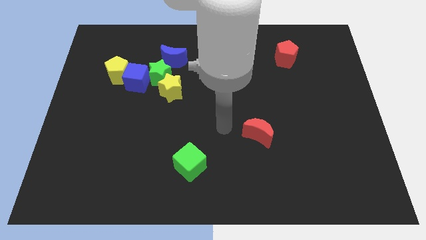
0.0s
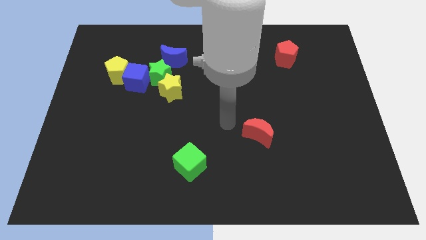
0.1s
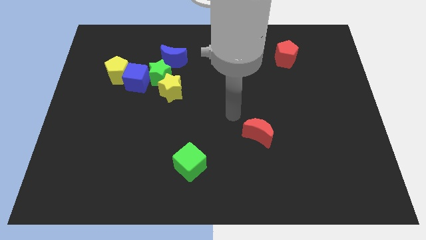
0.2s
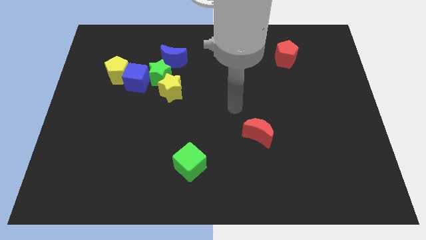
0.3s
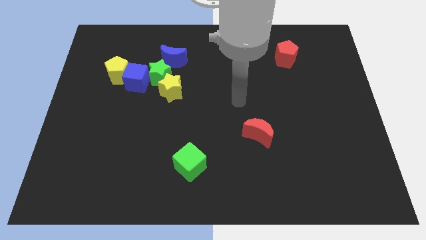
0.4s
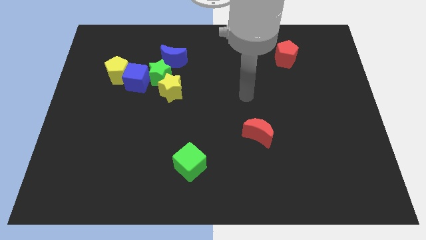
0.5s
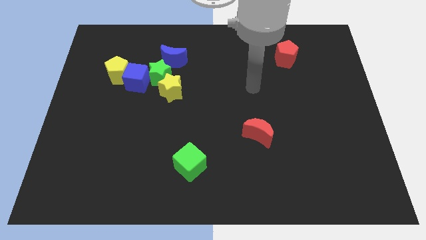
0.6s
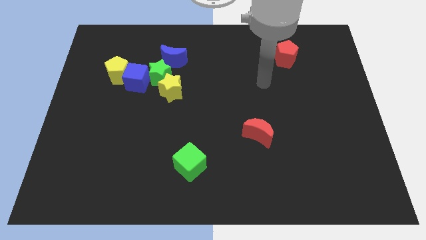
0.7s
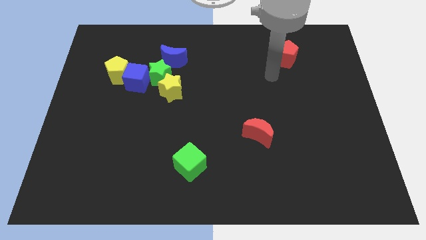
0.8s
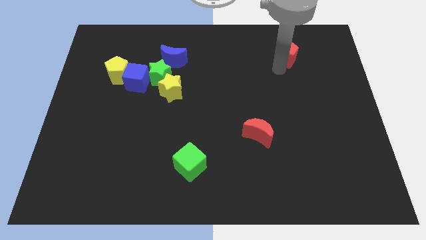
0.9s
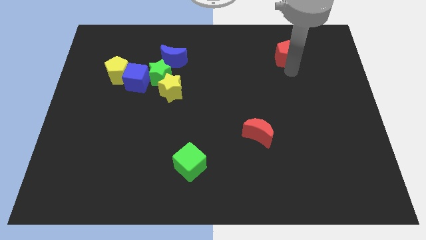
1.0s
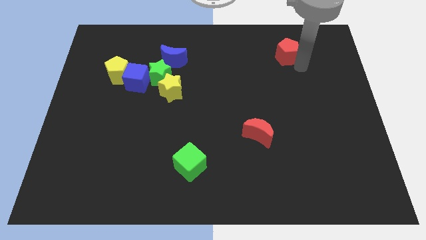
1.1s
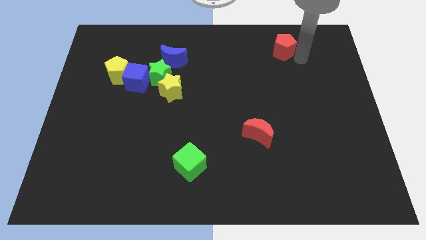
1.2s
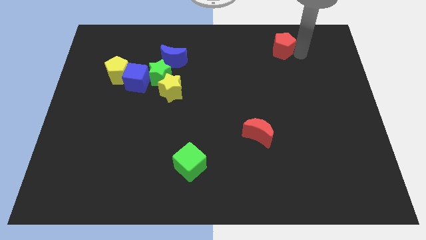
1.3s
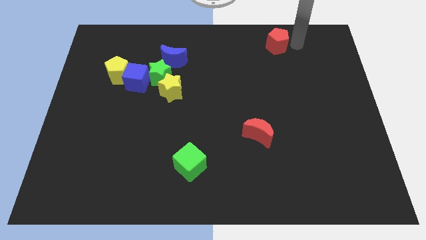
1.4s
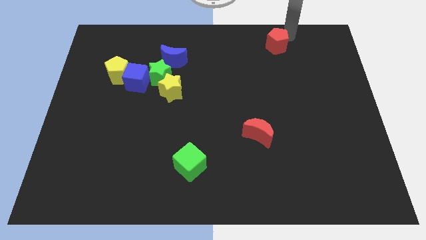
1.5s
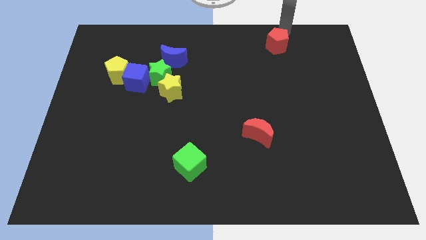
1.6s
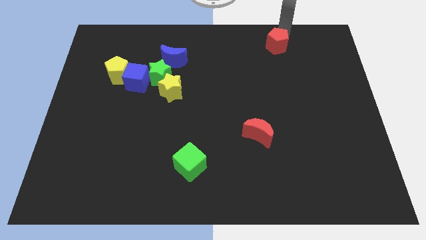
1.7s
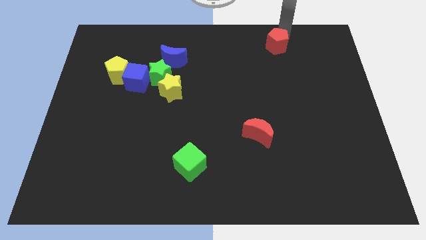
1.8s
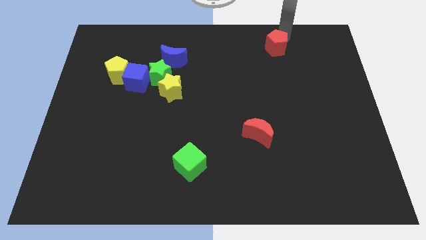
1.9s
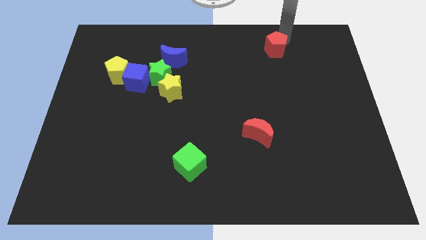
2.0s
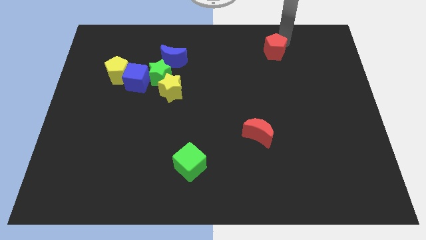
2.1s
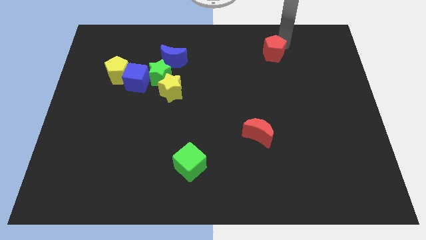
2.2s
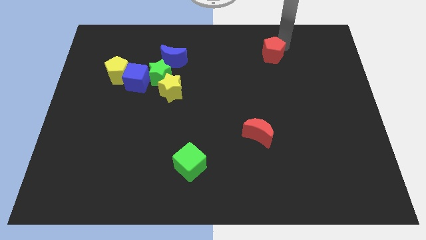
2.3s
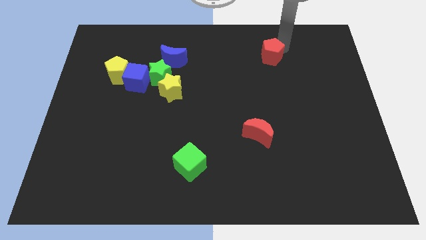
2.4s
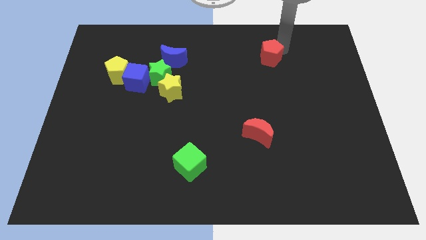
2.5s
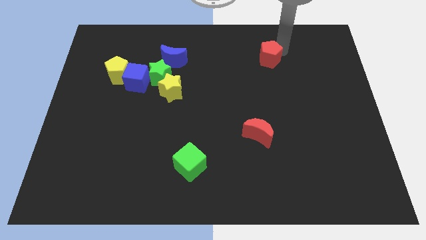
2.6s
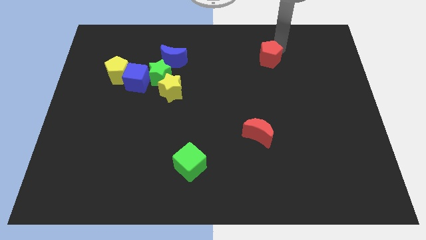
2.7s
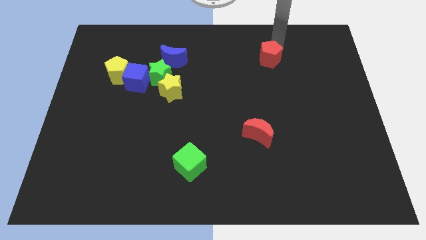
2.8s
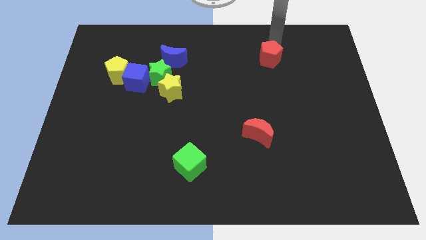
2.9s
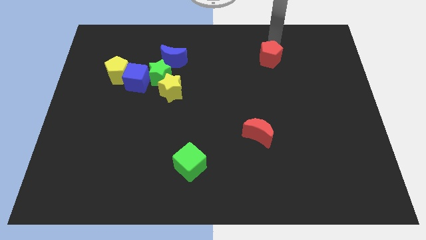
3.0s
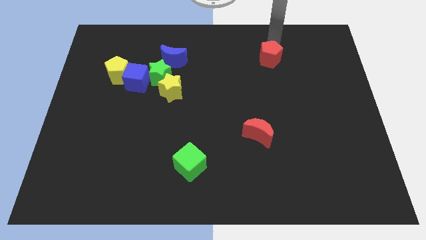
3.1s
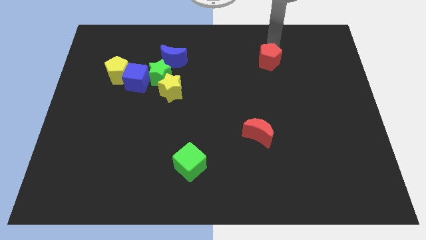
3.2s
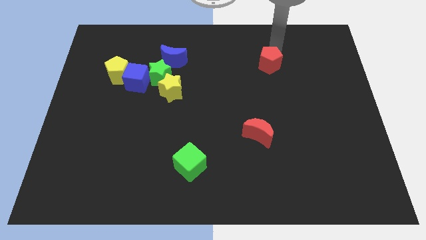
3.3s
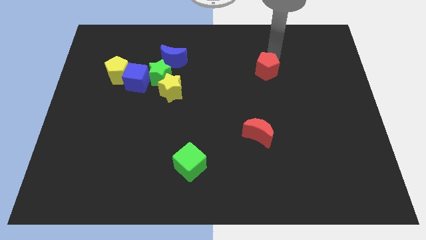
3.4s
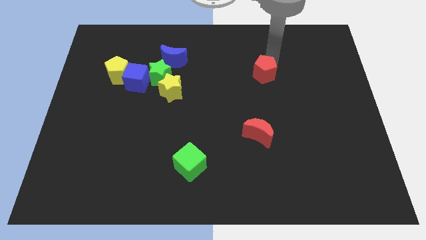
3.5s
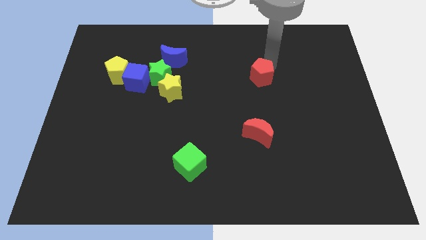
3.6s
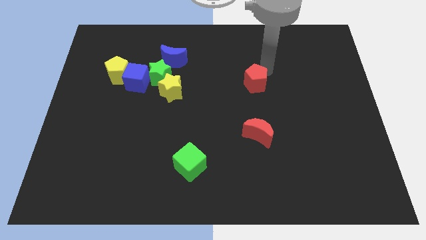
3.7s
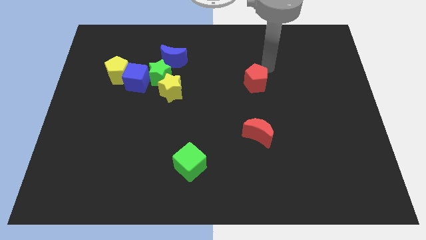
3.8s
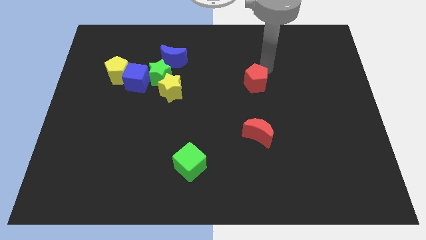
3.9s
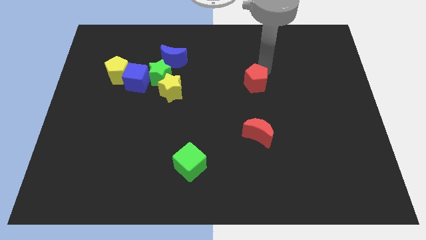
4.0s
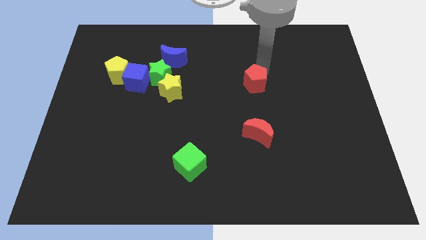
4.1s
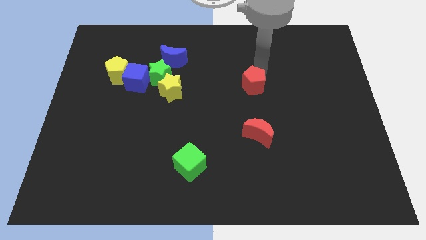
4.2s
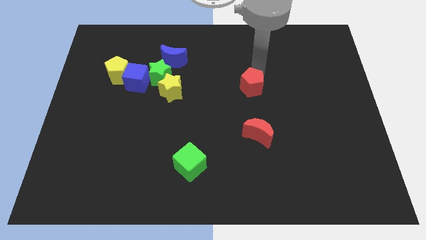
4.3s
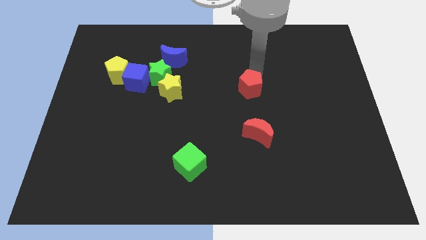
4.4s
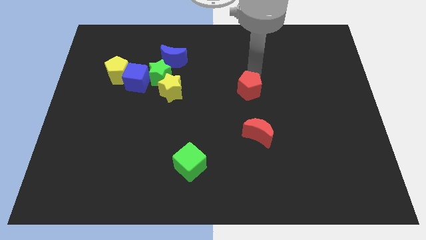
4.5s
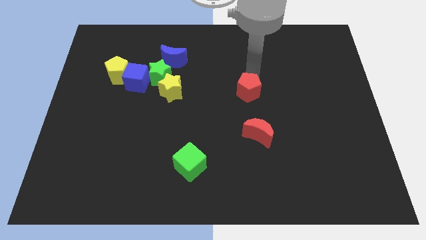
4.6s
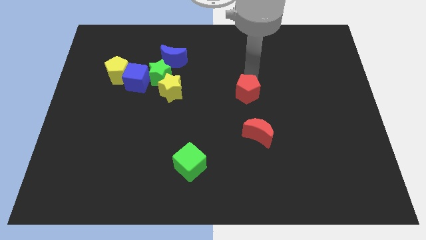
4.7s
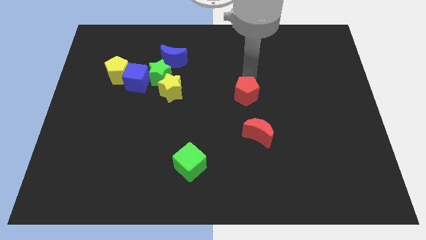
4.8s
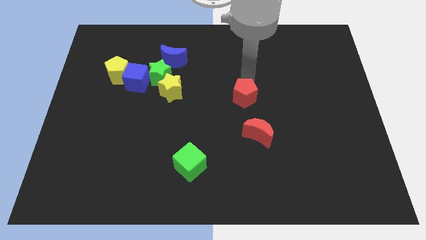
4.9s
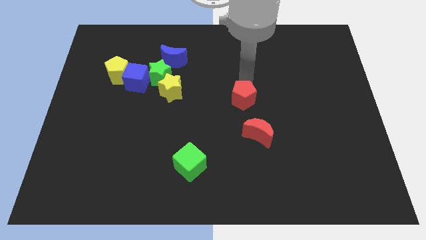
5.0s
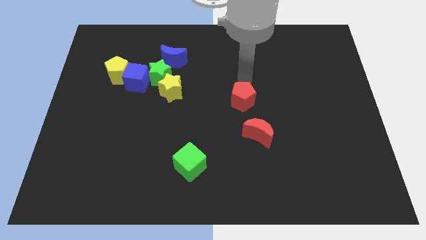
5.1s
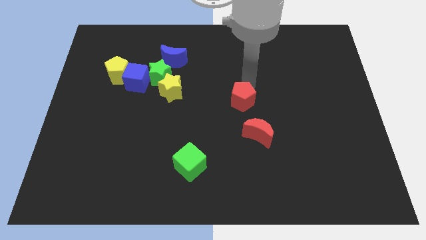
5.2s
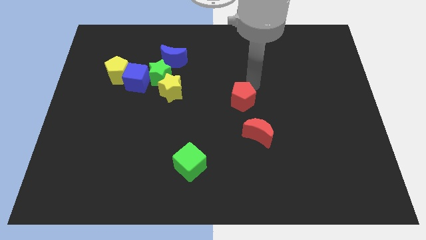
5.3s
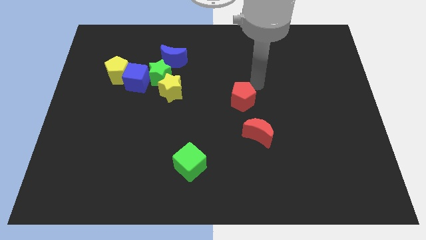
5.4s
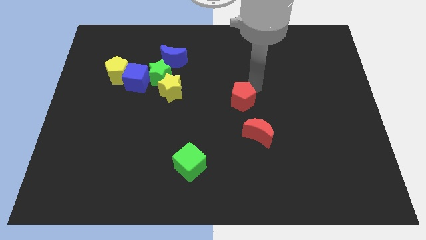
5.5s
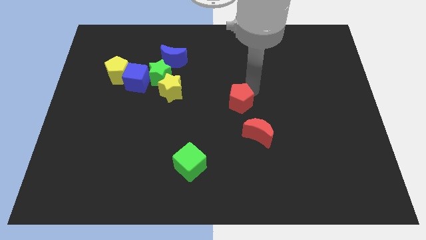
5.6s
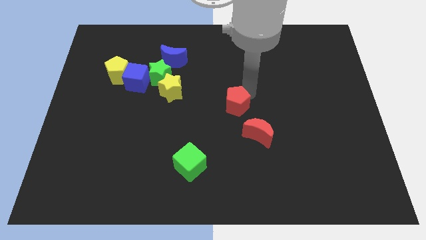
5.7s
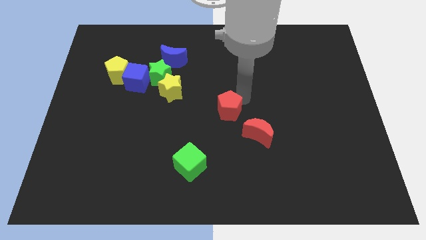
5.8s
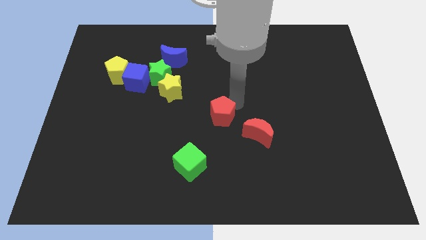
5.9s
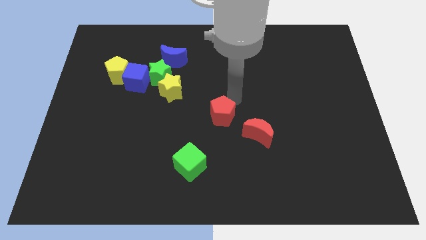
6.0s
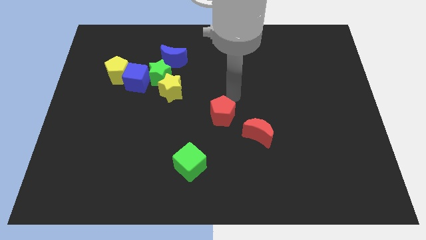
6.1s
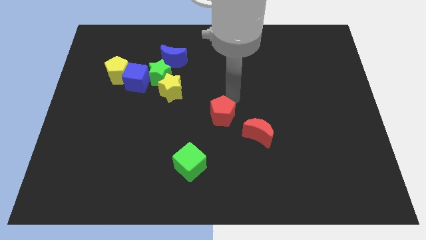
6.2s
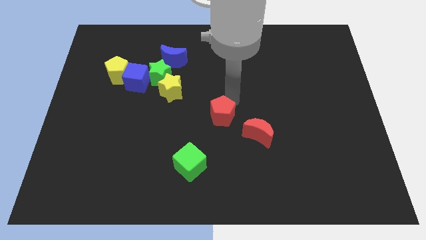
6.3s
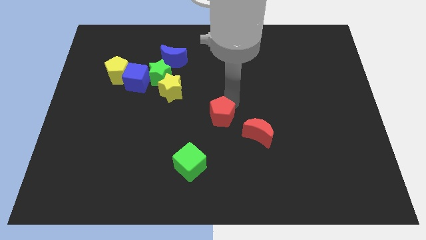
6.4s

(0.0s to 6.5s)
put the red pentagon just left of the red moon
